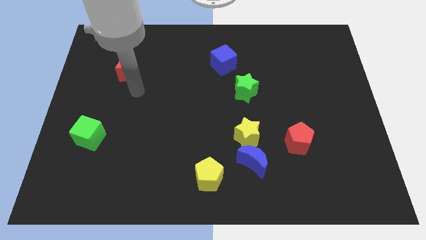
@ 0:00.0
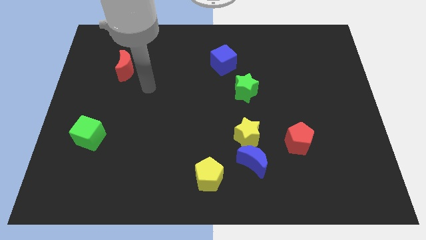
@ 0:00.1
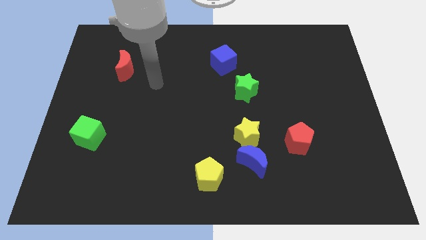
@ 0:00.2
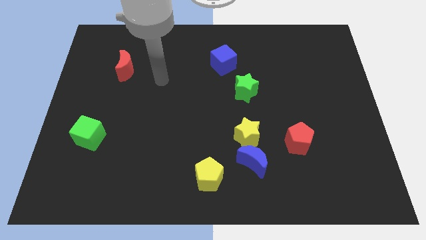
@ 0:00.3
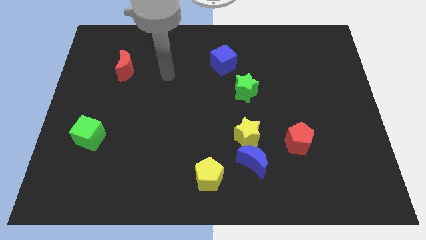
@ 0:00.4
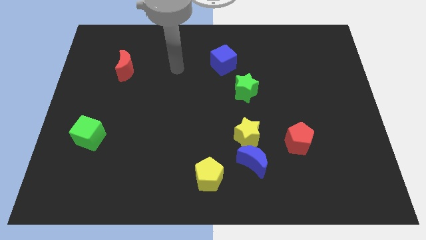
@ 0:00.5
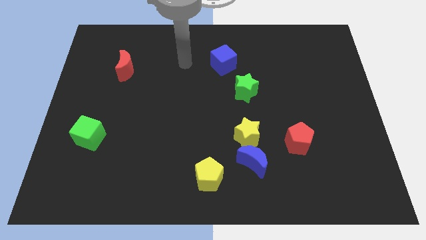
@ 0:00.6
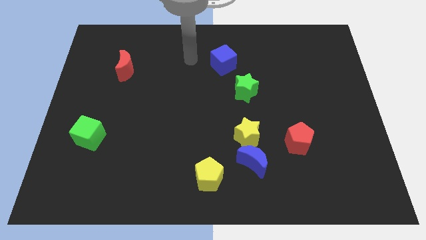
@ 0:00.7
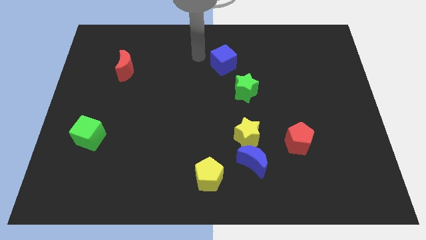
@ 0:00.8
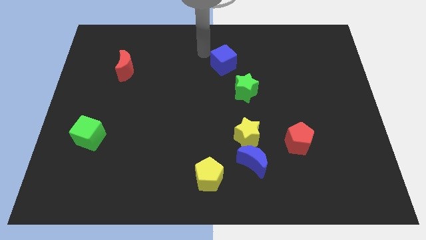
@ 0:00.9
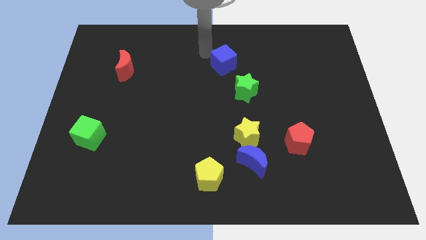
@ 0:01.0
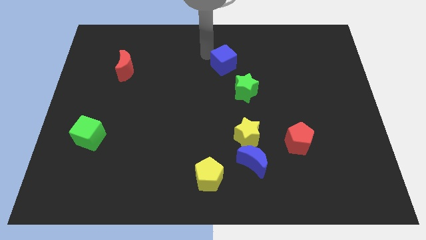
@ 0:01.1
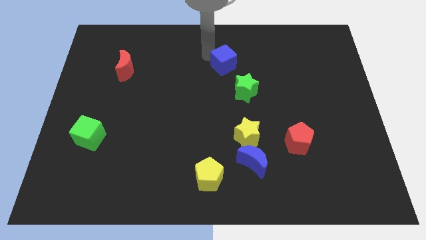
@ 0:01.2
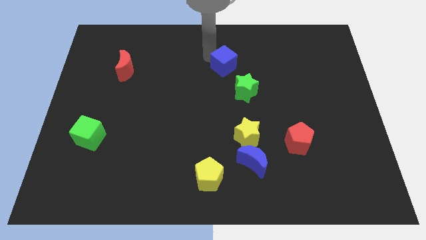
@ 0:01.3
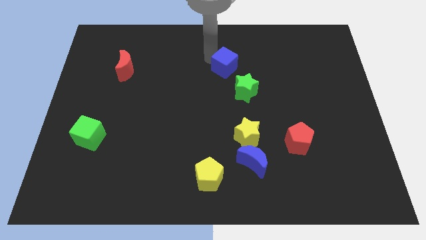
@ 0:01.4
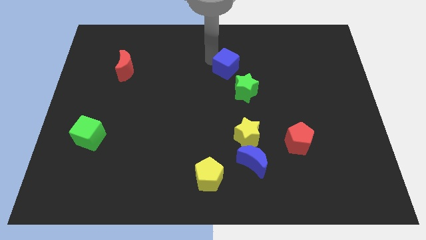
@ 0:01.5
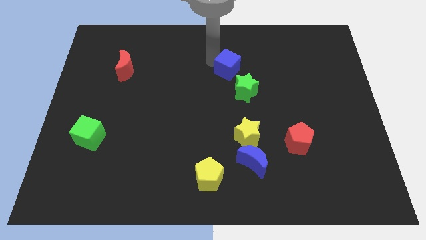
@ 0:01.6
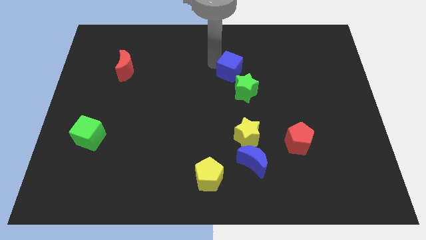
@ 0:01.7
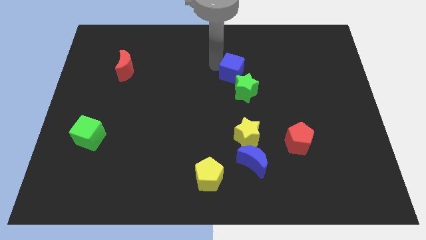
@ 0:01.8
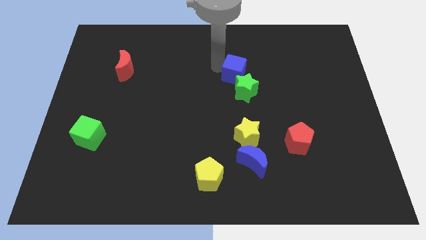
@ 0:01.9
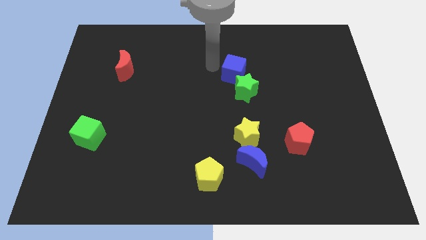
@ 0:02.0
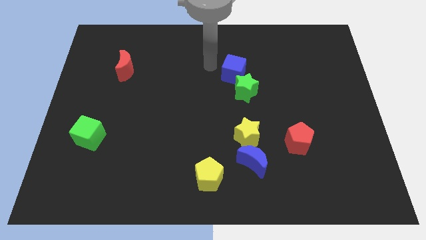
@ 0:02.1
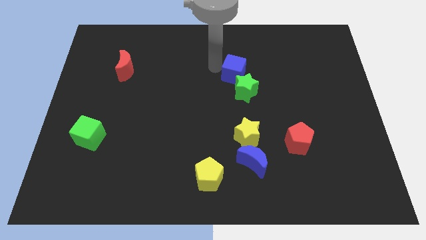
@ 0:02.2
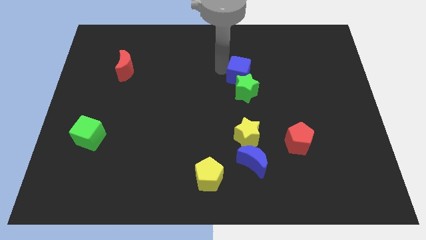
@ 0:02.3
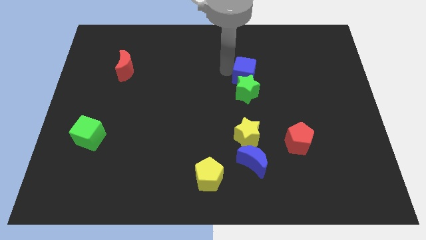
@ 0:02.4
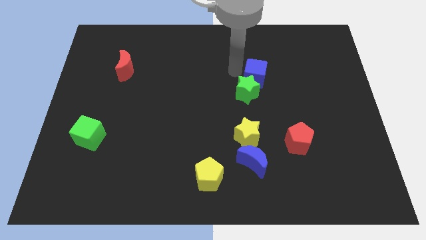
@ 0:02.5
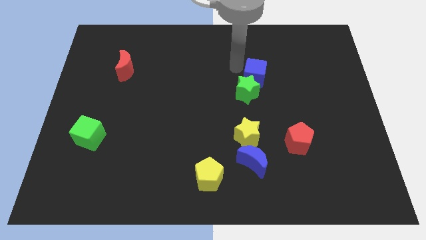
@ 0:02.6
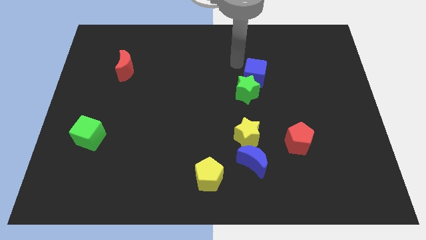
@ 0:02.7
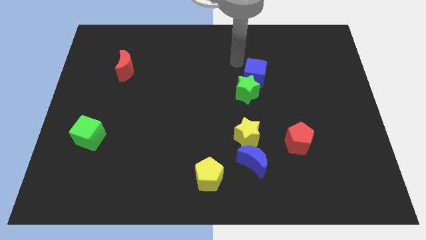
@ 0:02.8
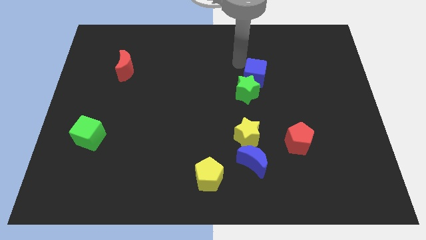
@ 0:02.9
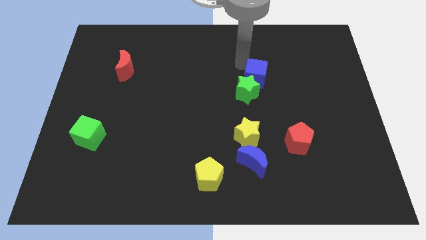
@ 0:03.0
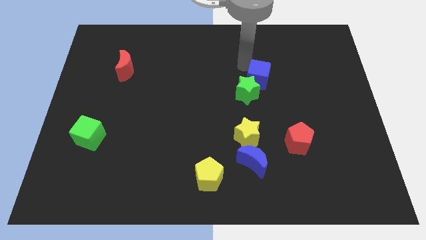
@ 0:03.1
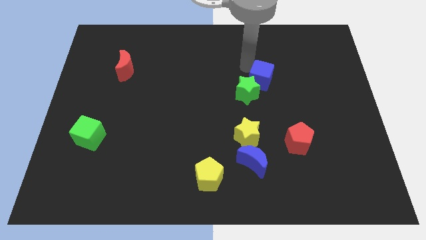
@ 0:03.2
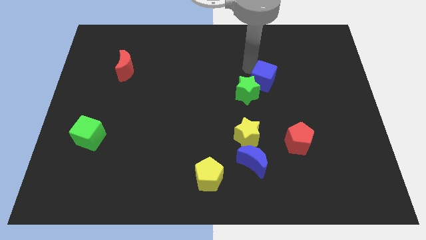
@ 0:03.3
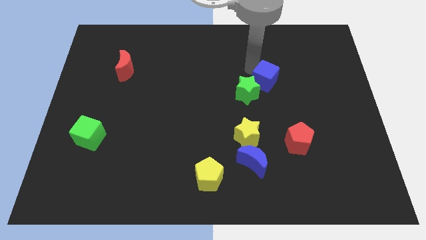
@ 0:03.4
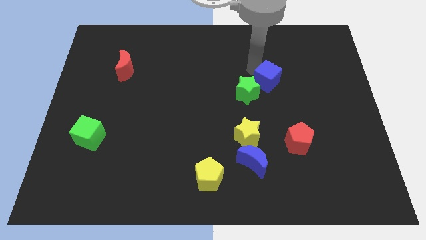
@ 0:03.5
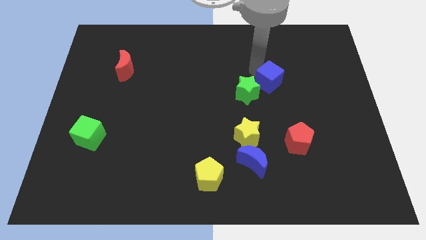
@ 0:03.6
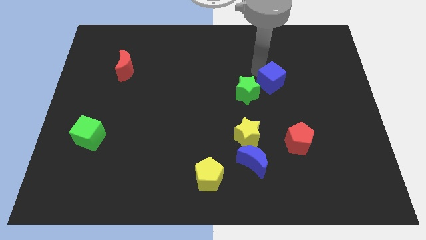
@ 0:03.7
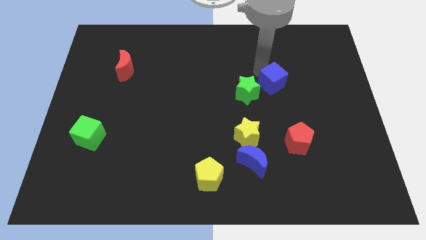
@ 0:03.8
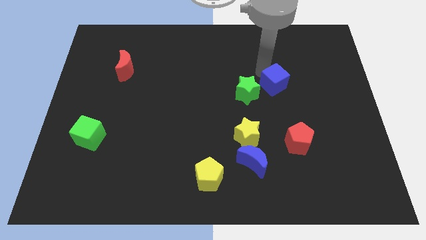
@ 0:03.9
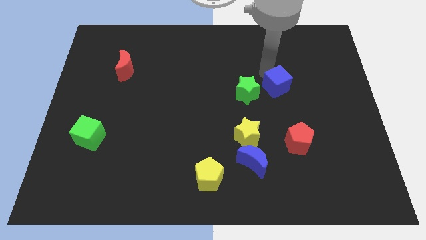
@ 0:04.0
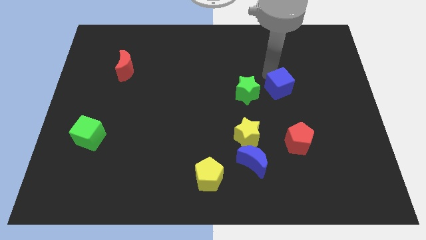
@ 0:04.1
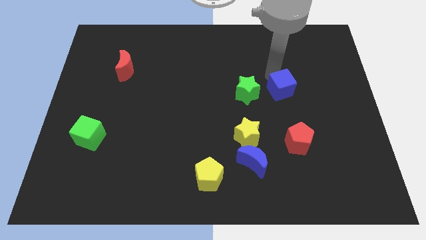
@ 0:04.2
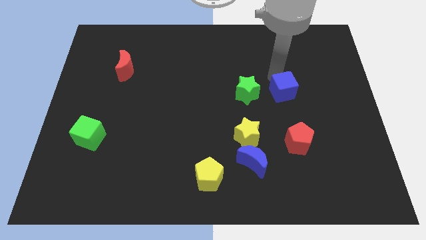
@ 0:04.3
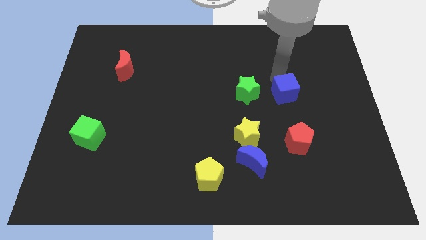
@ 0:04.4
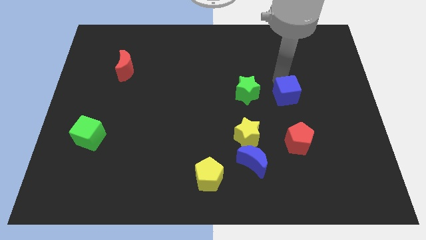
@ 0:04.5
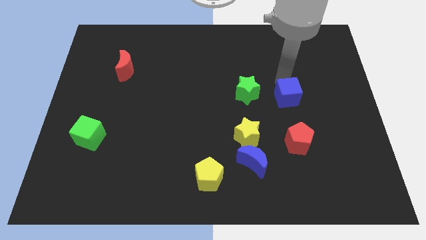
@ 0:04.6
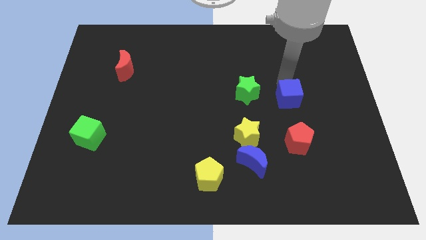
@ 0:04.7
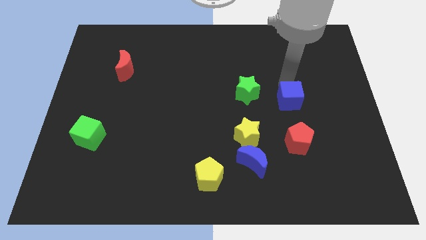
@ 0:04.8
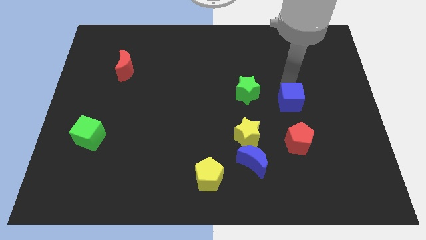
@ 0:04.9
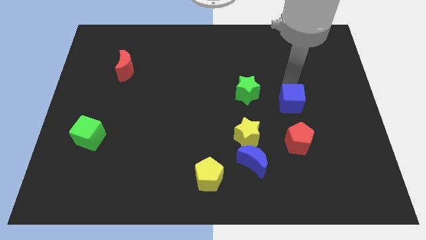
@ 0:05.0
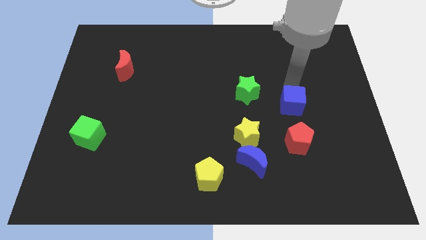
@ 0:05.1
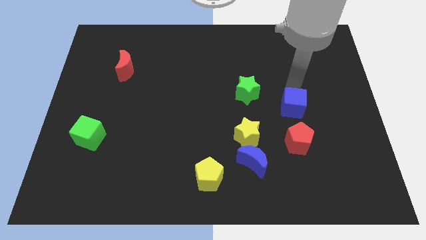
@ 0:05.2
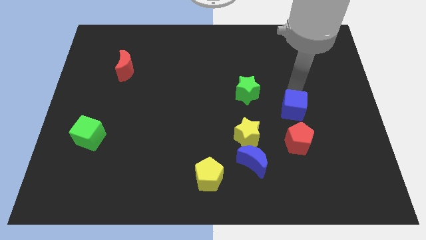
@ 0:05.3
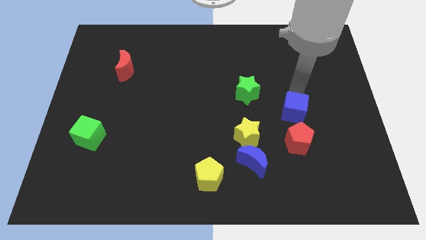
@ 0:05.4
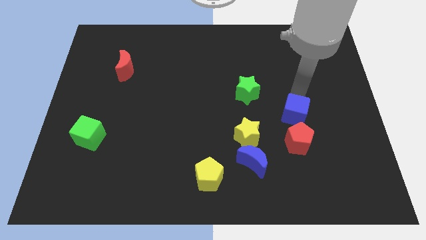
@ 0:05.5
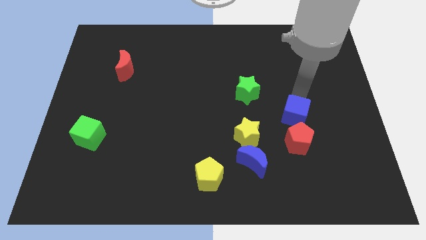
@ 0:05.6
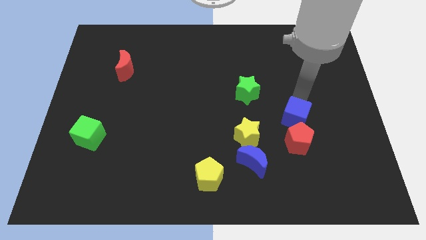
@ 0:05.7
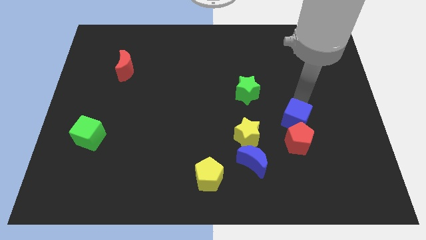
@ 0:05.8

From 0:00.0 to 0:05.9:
slide the blue cube to the red pentagon

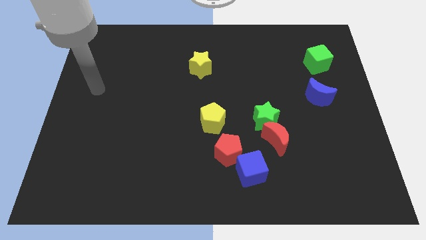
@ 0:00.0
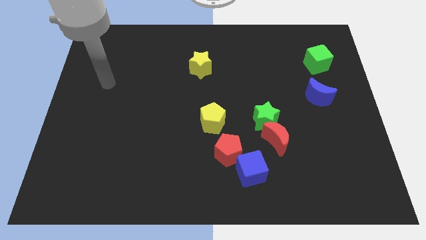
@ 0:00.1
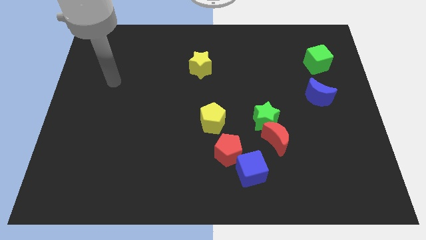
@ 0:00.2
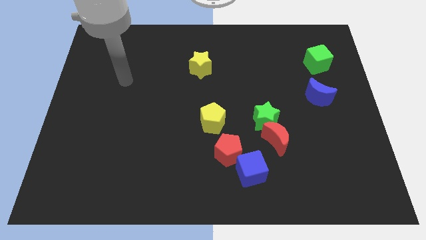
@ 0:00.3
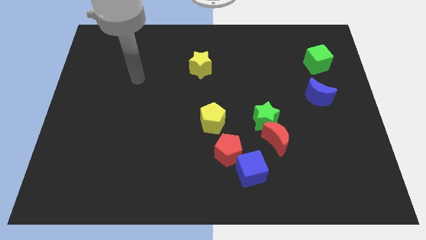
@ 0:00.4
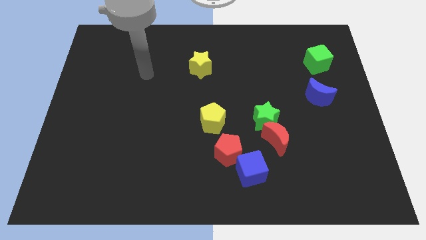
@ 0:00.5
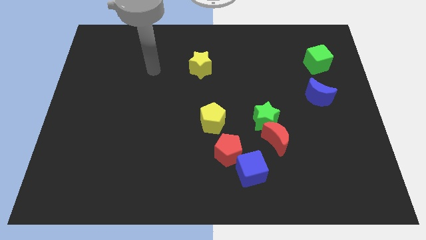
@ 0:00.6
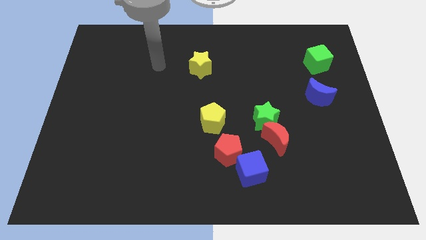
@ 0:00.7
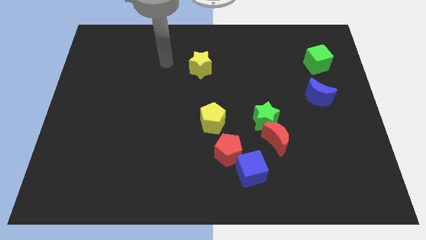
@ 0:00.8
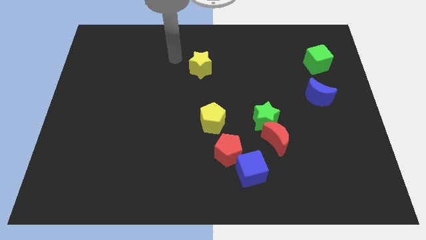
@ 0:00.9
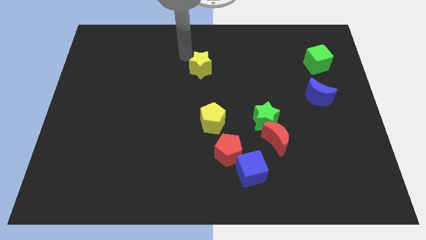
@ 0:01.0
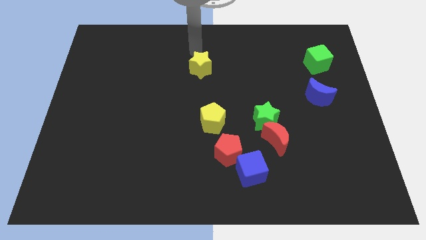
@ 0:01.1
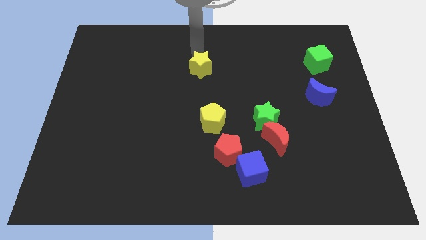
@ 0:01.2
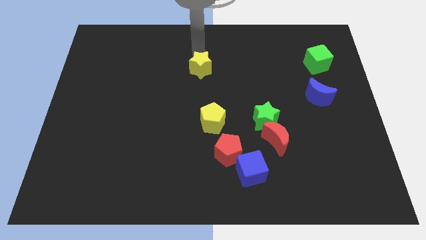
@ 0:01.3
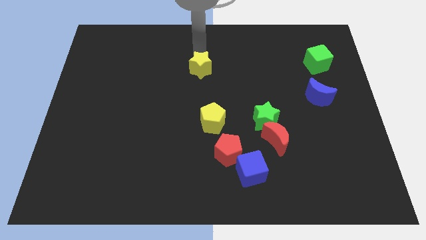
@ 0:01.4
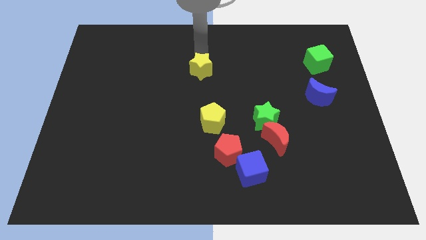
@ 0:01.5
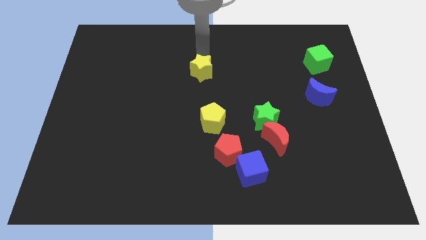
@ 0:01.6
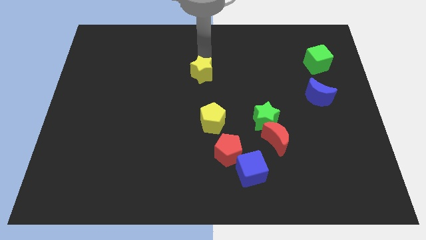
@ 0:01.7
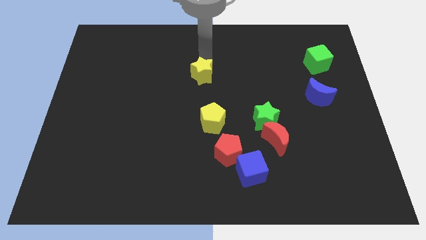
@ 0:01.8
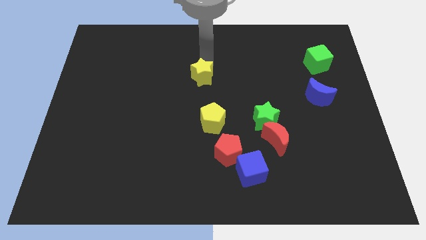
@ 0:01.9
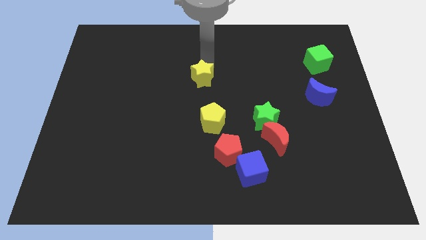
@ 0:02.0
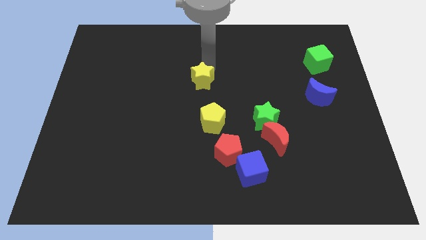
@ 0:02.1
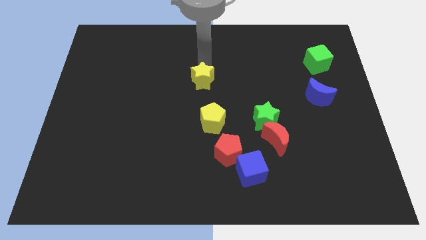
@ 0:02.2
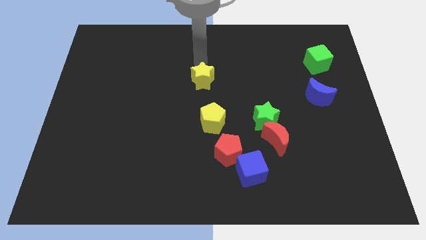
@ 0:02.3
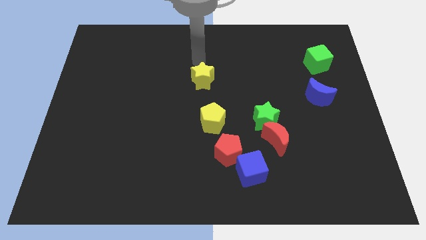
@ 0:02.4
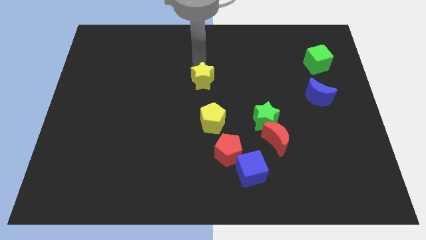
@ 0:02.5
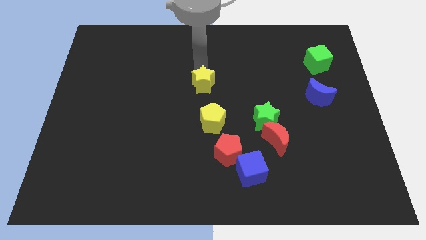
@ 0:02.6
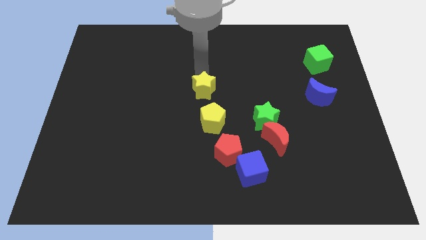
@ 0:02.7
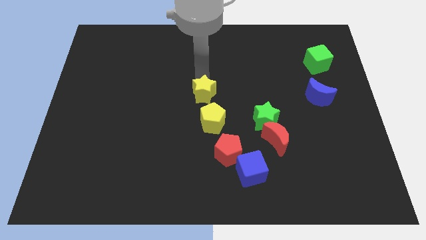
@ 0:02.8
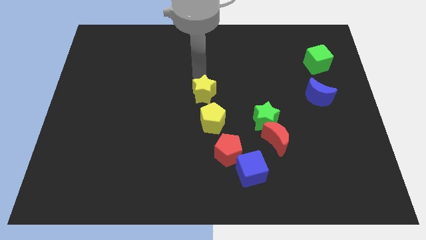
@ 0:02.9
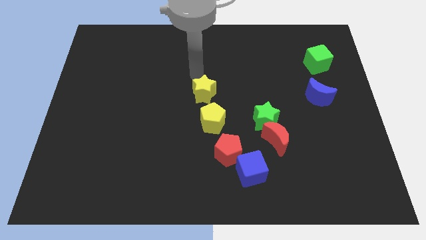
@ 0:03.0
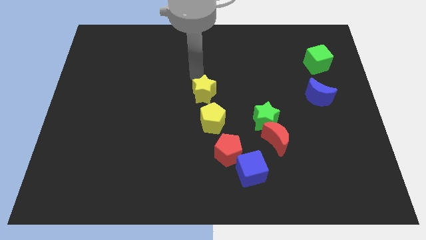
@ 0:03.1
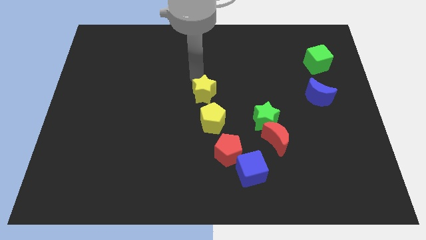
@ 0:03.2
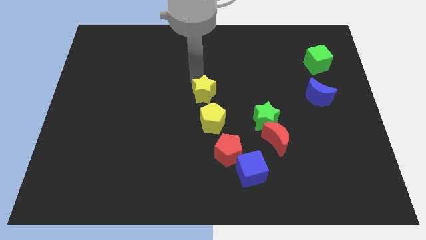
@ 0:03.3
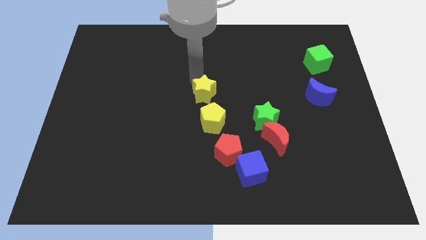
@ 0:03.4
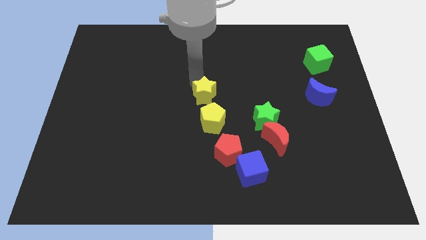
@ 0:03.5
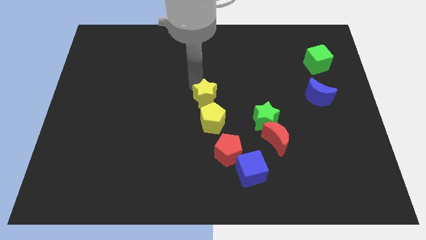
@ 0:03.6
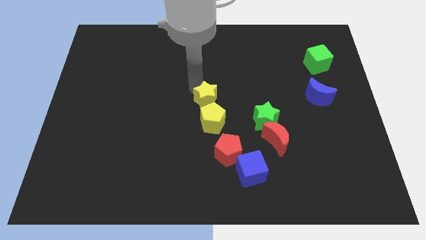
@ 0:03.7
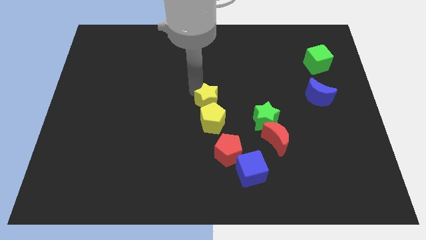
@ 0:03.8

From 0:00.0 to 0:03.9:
move the yellow star towards the yellow pentagon
